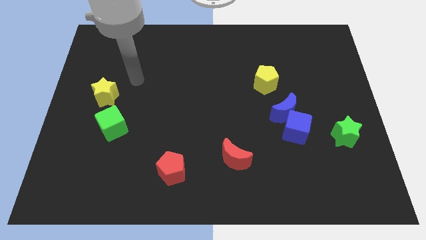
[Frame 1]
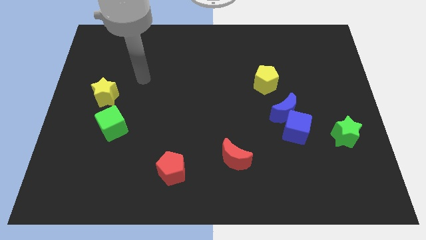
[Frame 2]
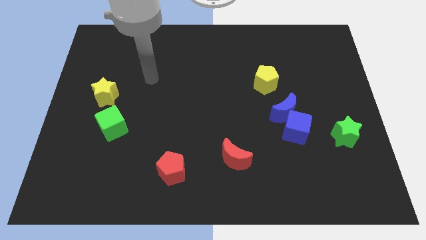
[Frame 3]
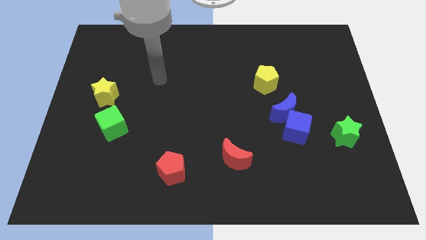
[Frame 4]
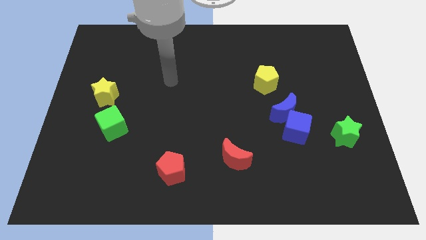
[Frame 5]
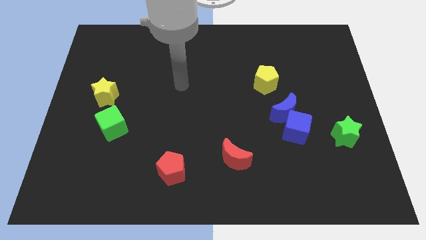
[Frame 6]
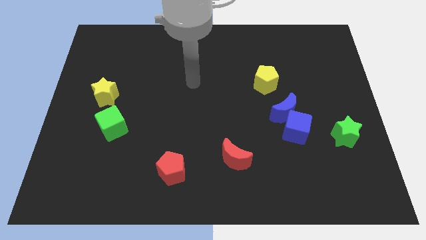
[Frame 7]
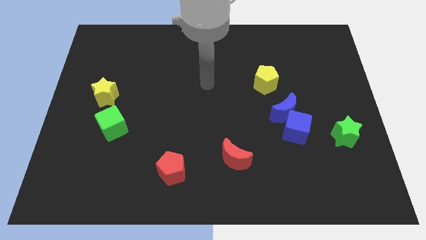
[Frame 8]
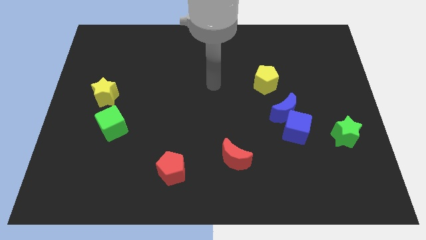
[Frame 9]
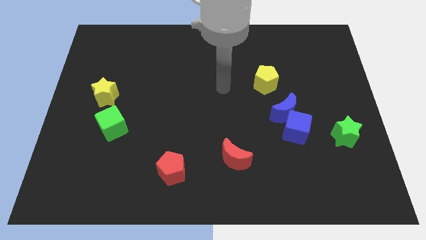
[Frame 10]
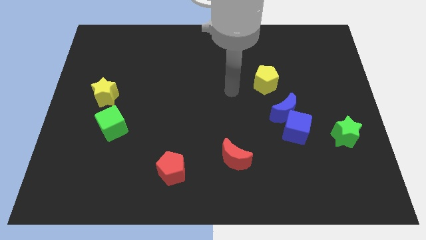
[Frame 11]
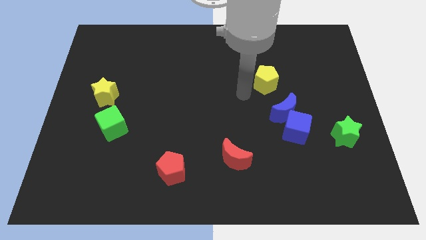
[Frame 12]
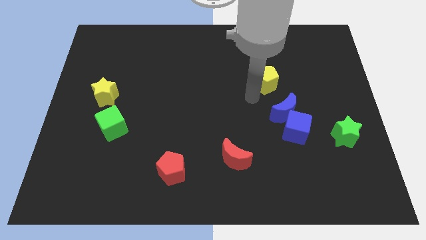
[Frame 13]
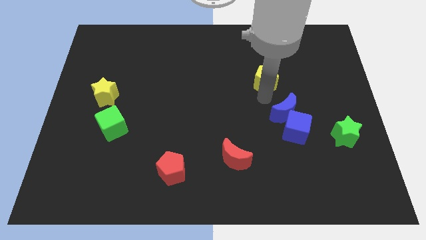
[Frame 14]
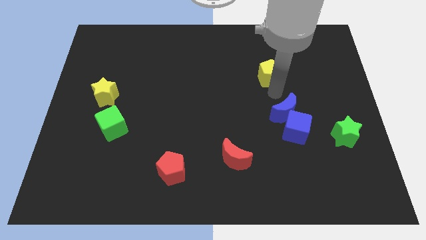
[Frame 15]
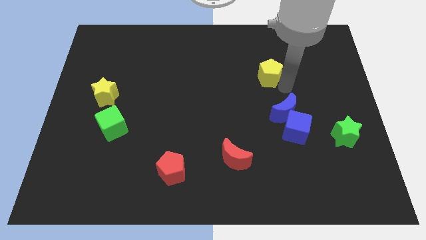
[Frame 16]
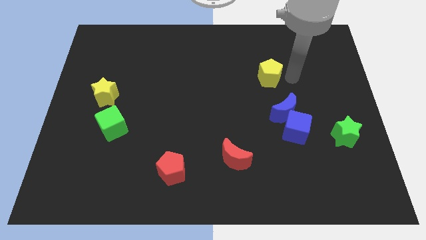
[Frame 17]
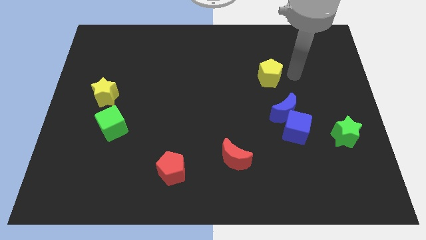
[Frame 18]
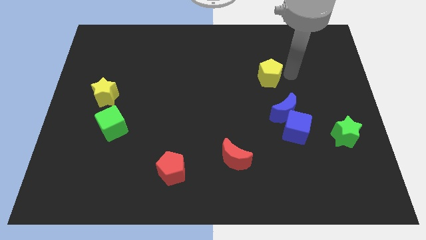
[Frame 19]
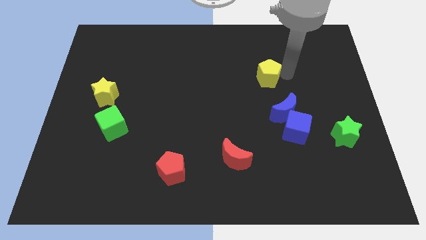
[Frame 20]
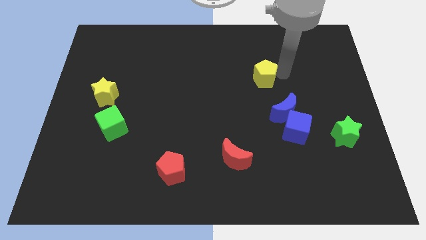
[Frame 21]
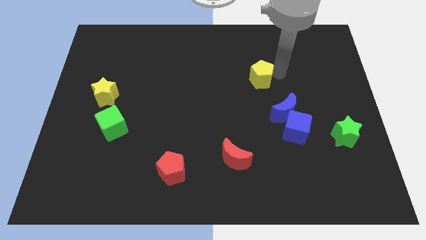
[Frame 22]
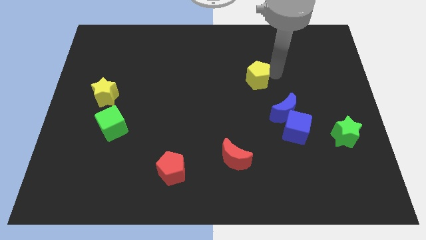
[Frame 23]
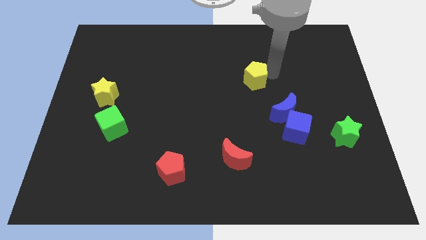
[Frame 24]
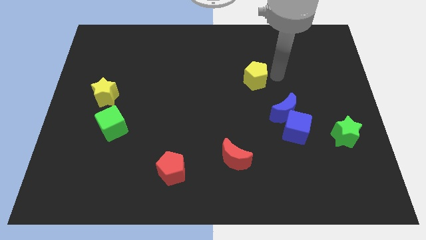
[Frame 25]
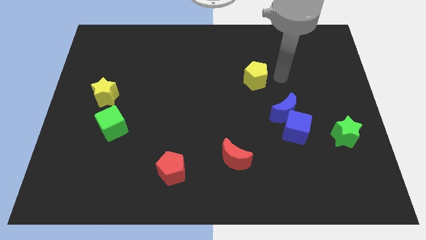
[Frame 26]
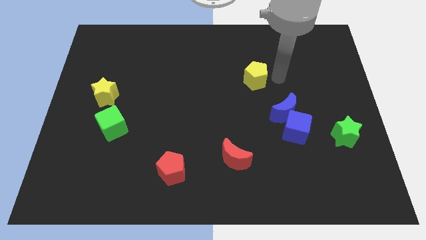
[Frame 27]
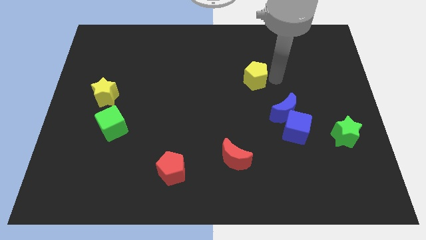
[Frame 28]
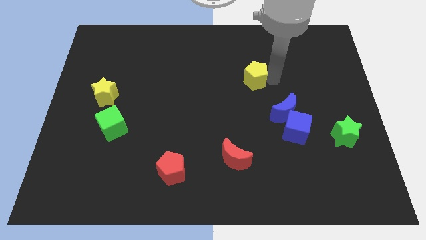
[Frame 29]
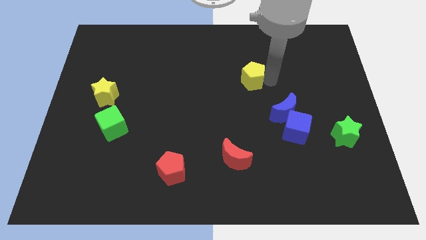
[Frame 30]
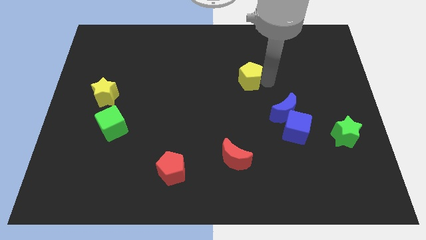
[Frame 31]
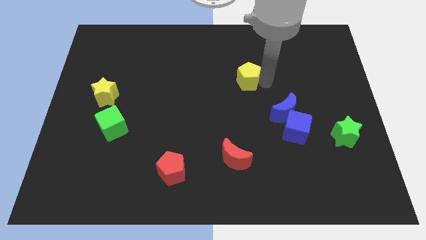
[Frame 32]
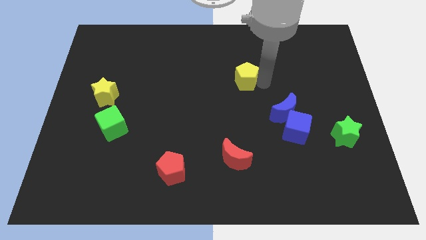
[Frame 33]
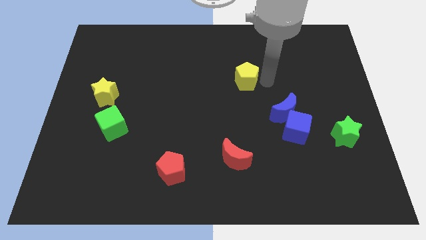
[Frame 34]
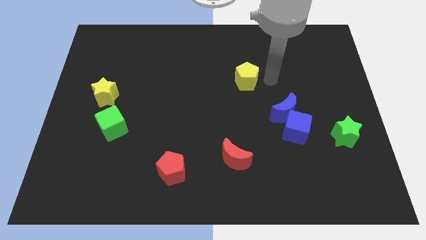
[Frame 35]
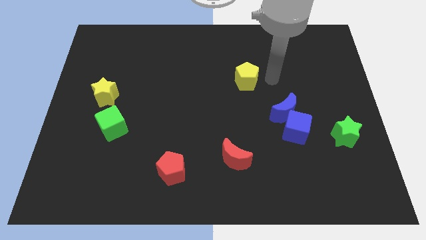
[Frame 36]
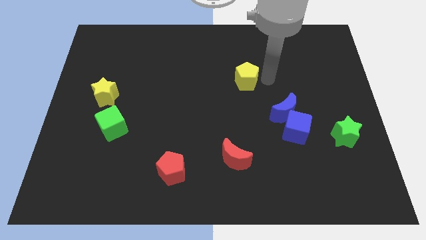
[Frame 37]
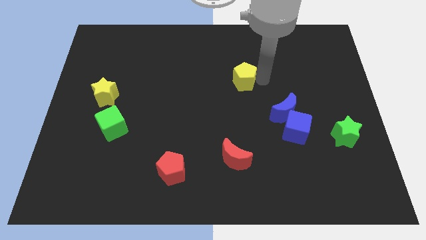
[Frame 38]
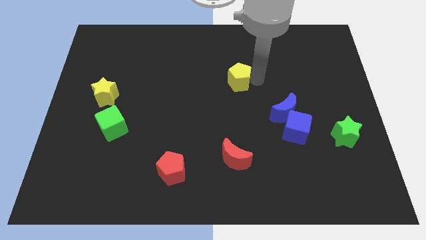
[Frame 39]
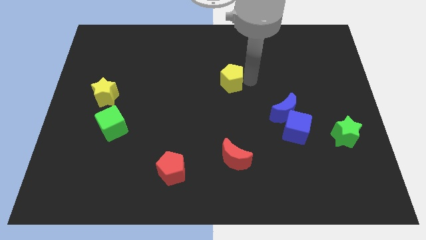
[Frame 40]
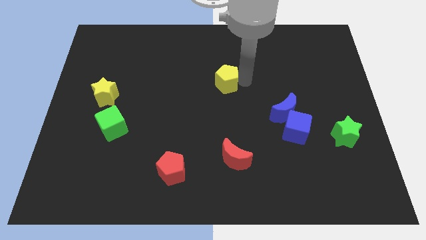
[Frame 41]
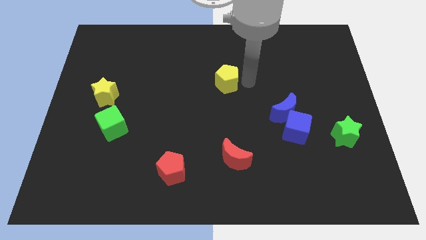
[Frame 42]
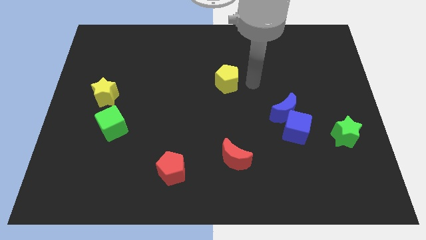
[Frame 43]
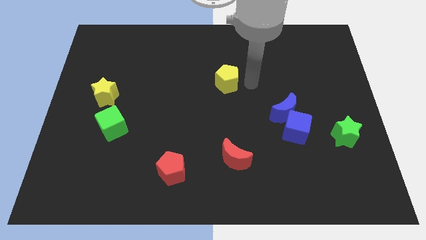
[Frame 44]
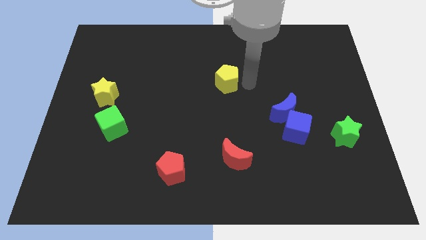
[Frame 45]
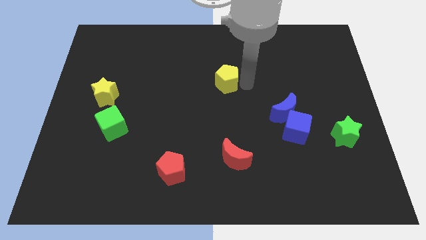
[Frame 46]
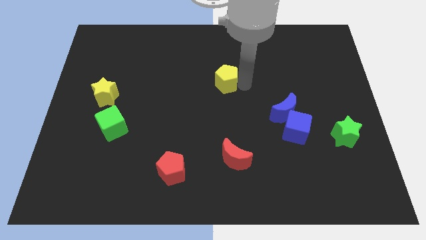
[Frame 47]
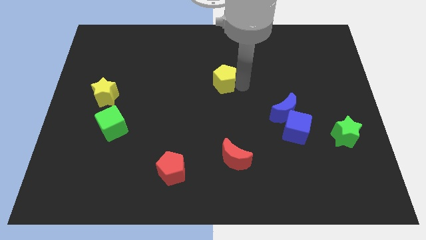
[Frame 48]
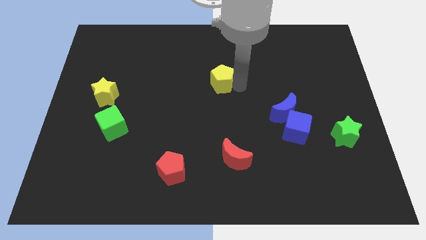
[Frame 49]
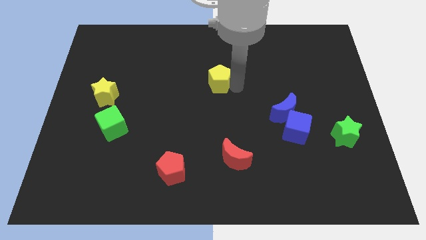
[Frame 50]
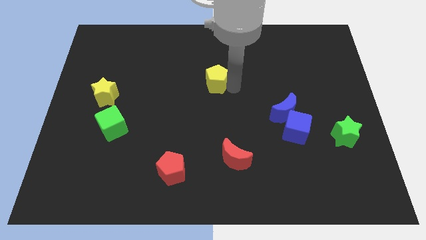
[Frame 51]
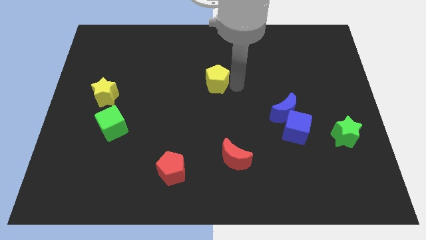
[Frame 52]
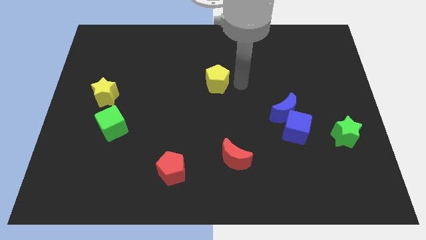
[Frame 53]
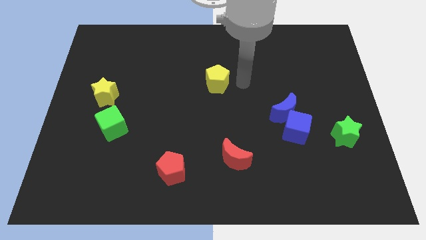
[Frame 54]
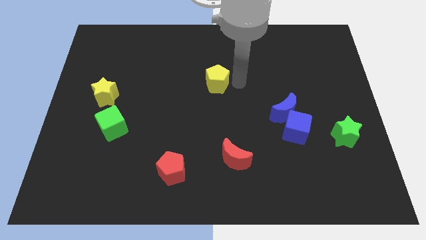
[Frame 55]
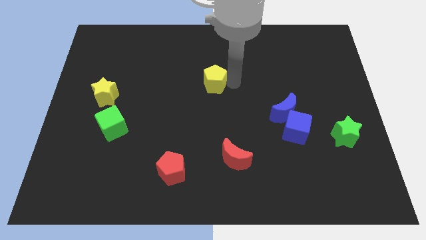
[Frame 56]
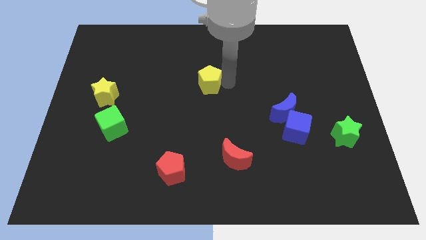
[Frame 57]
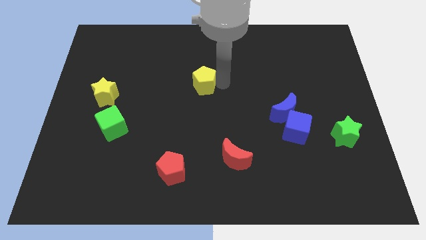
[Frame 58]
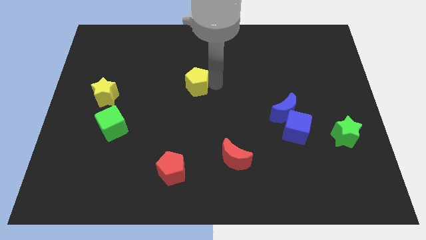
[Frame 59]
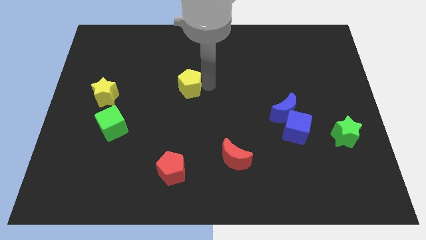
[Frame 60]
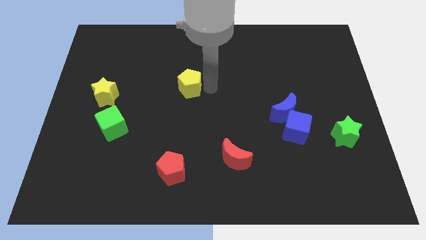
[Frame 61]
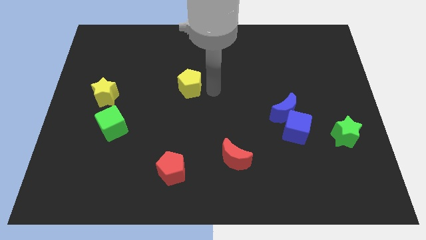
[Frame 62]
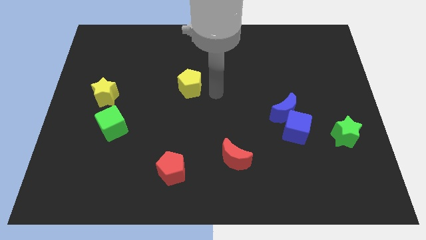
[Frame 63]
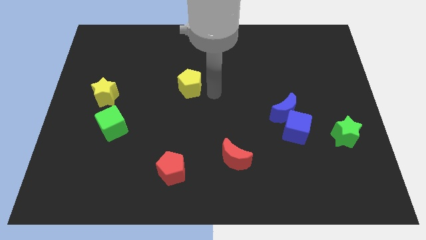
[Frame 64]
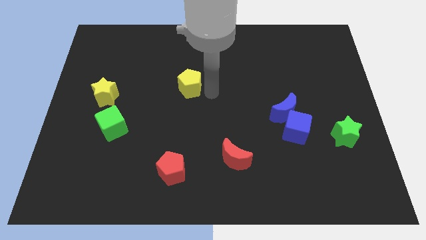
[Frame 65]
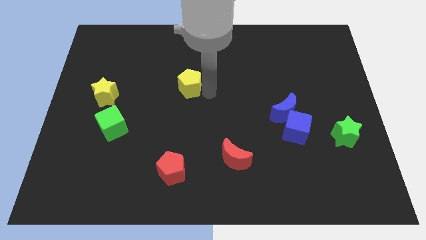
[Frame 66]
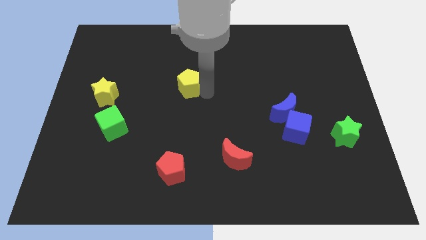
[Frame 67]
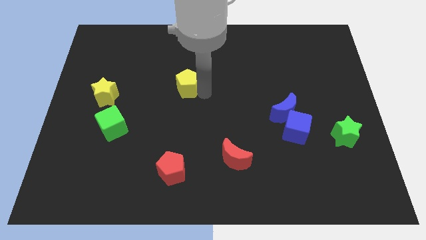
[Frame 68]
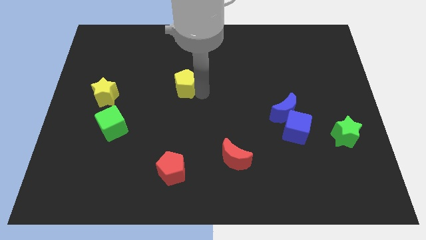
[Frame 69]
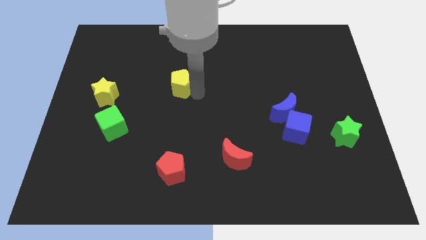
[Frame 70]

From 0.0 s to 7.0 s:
push the yellow pentagon to the left

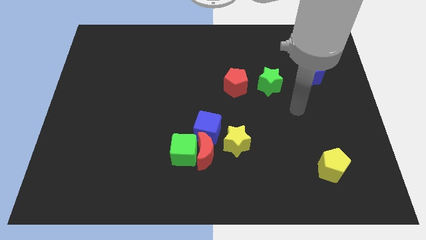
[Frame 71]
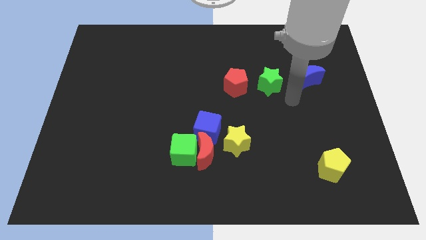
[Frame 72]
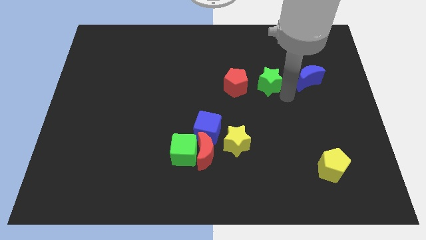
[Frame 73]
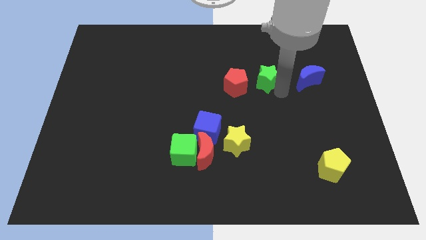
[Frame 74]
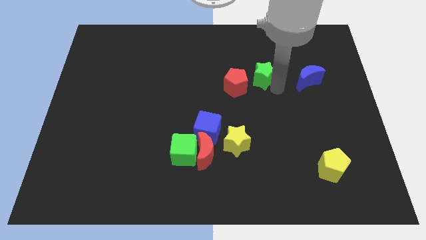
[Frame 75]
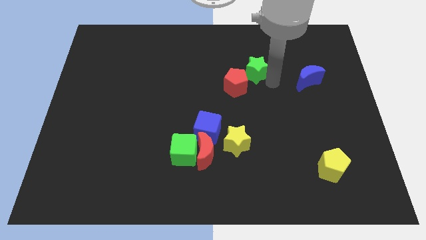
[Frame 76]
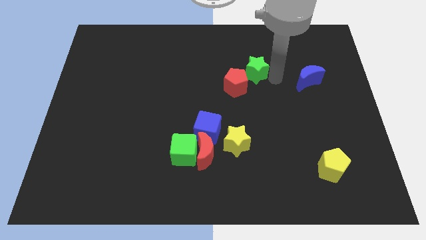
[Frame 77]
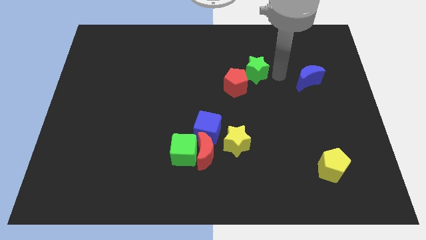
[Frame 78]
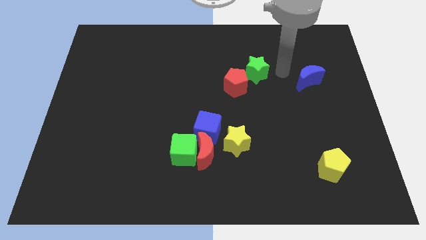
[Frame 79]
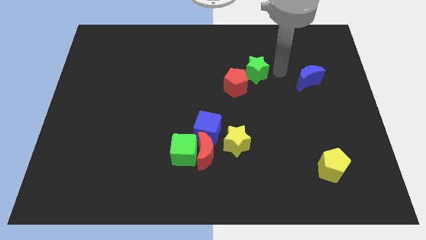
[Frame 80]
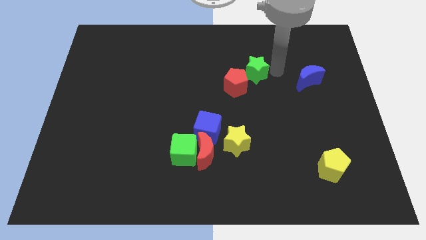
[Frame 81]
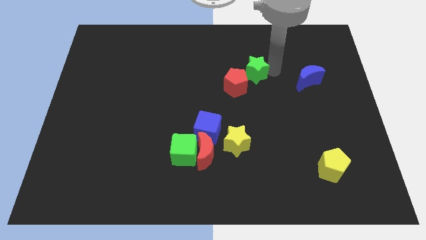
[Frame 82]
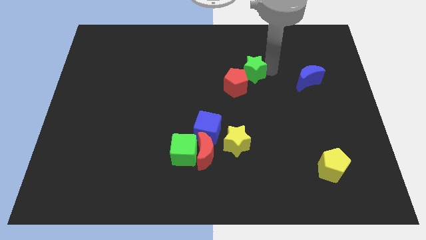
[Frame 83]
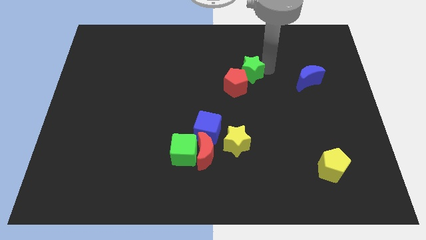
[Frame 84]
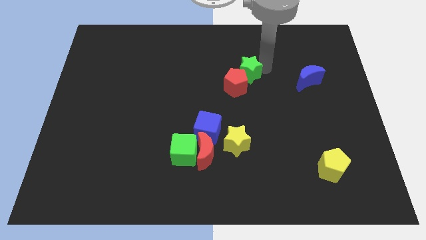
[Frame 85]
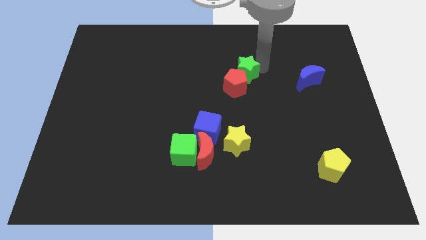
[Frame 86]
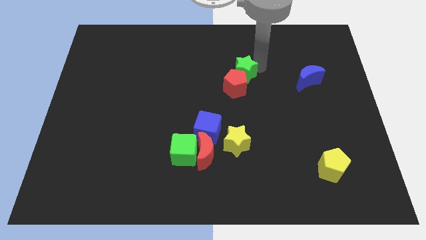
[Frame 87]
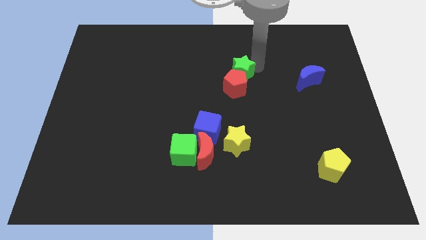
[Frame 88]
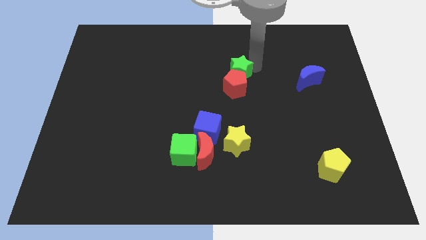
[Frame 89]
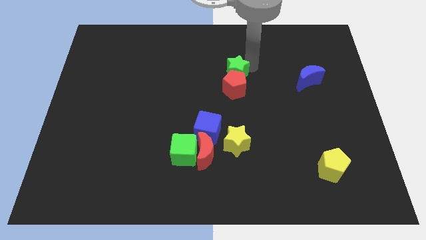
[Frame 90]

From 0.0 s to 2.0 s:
slightly push the green star to the left
